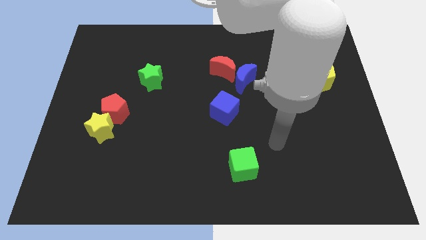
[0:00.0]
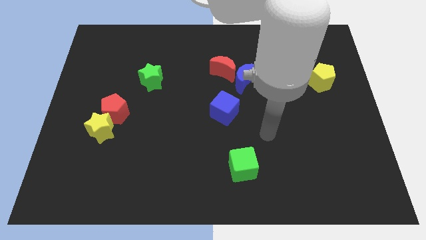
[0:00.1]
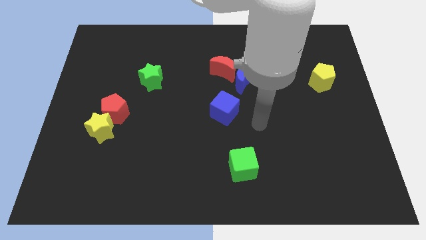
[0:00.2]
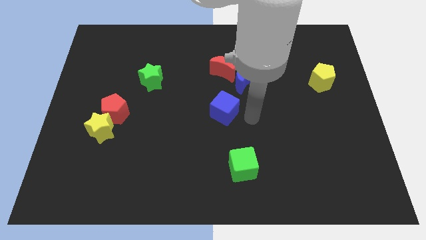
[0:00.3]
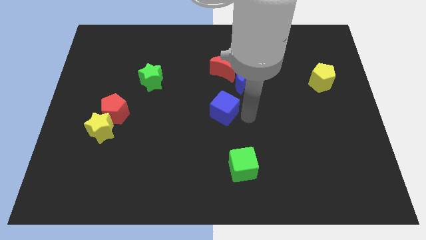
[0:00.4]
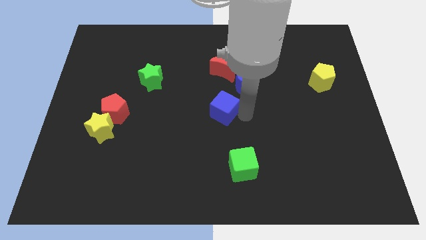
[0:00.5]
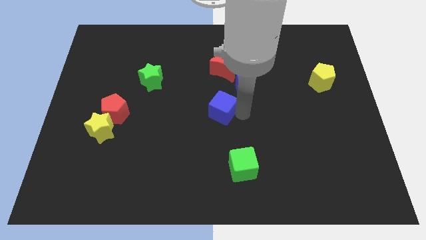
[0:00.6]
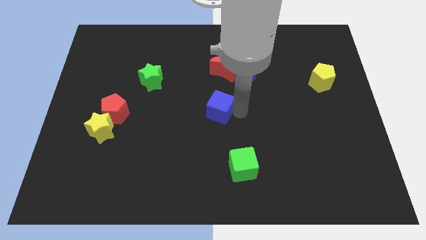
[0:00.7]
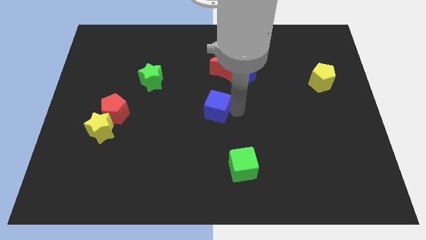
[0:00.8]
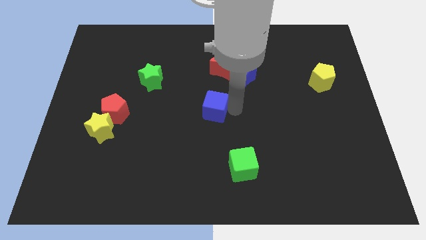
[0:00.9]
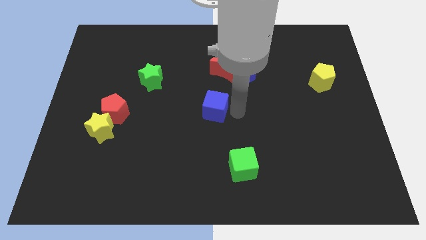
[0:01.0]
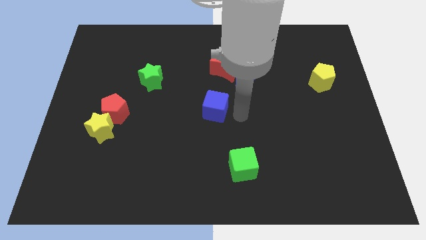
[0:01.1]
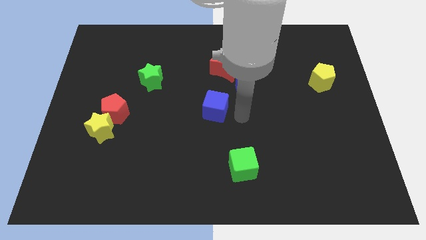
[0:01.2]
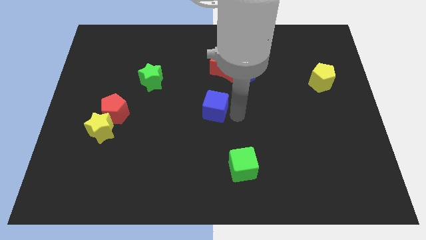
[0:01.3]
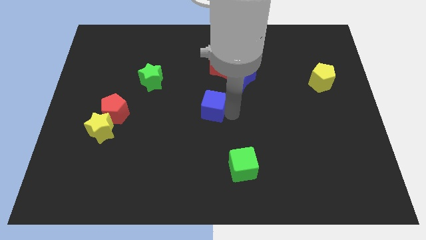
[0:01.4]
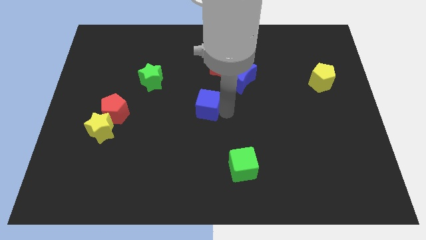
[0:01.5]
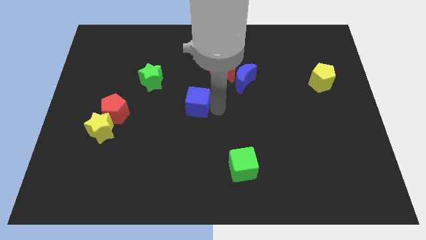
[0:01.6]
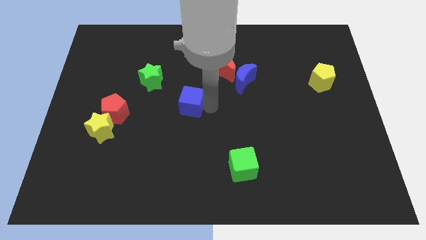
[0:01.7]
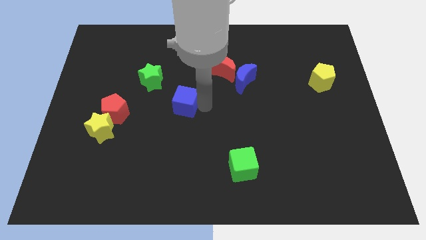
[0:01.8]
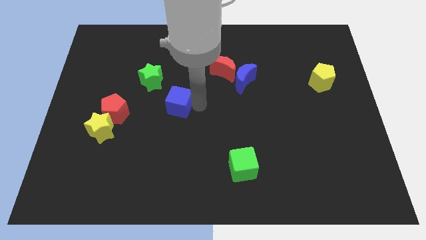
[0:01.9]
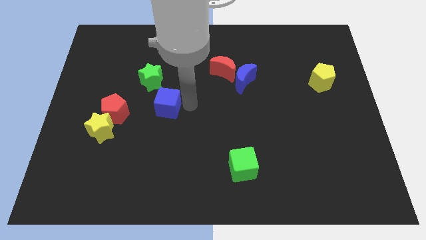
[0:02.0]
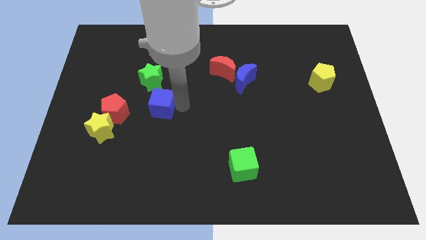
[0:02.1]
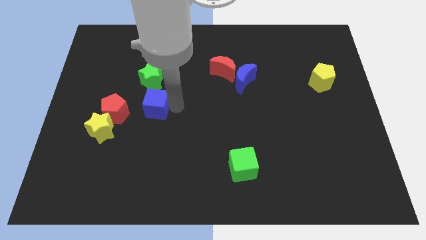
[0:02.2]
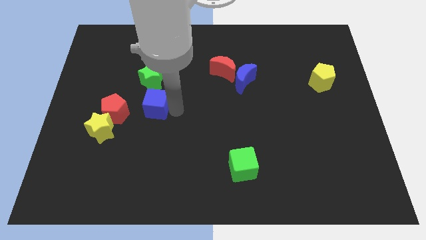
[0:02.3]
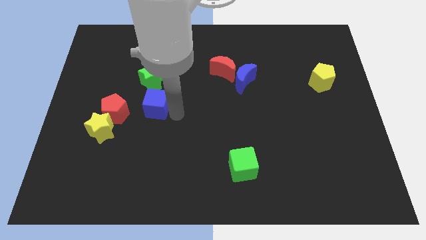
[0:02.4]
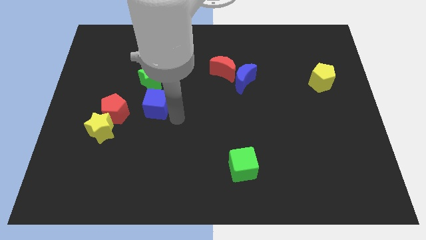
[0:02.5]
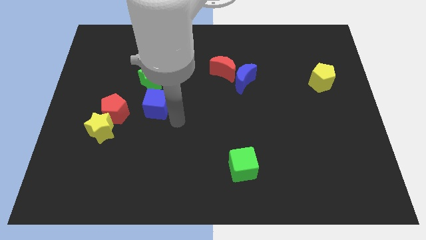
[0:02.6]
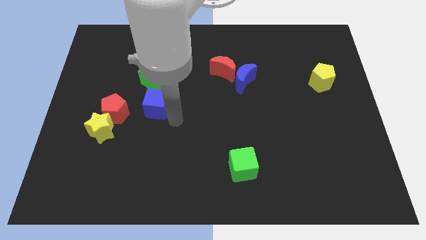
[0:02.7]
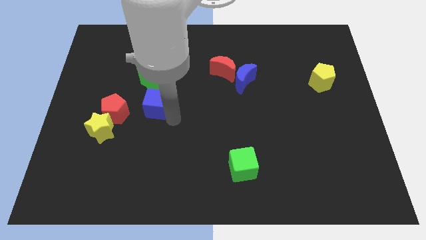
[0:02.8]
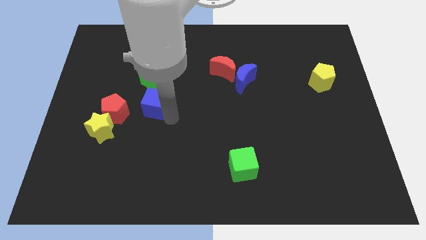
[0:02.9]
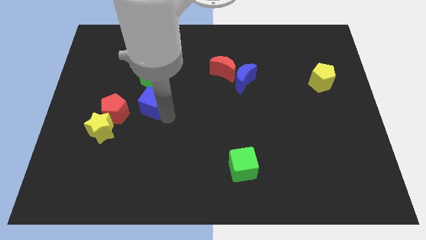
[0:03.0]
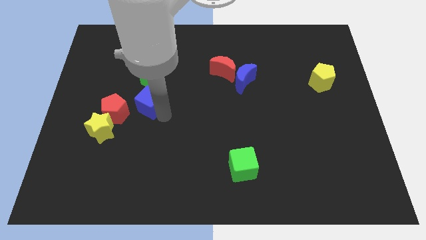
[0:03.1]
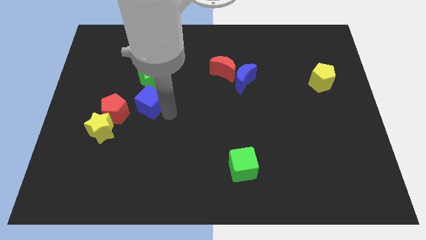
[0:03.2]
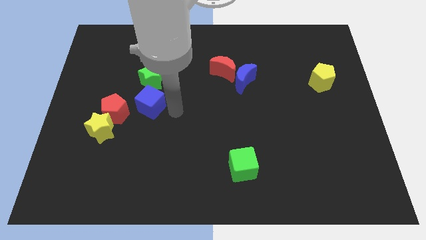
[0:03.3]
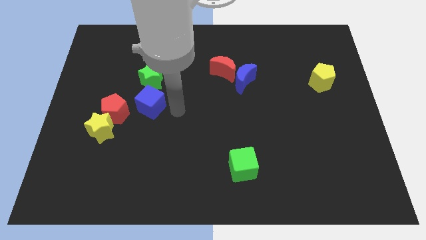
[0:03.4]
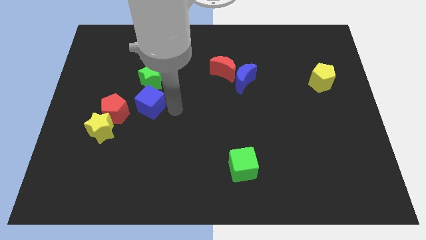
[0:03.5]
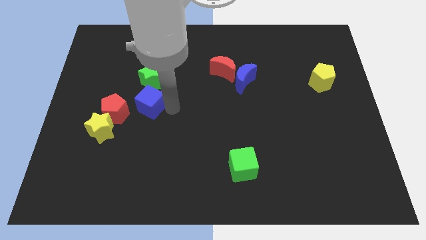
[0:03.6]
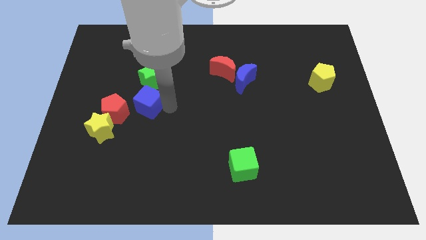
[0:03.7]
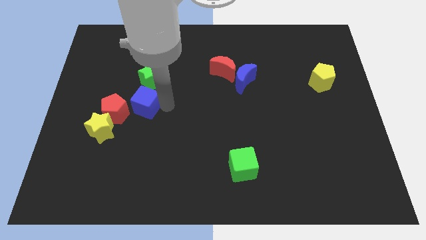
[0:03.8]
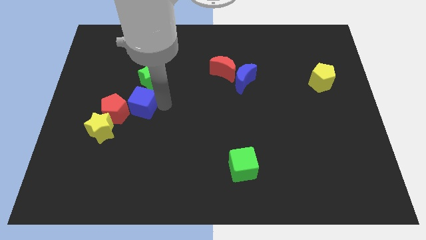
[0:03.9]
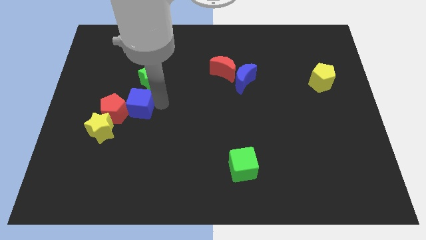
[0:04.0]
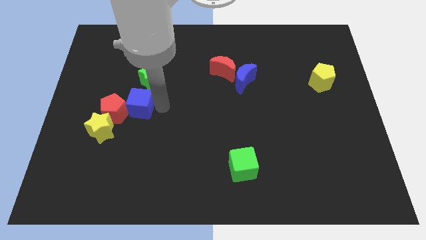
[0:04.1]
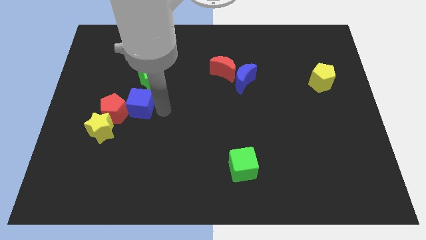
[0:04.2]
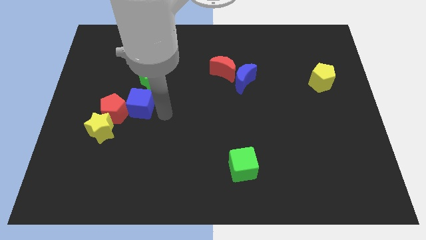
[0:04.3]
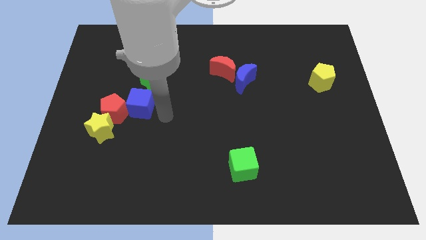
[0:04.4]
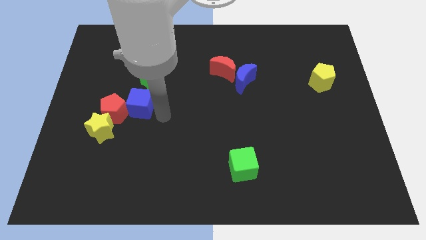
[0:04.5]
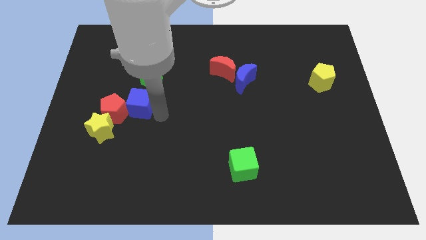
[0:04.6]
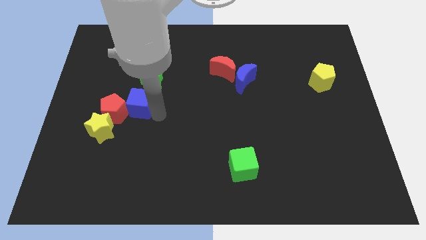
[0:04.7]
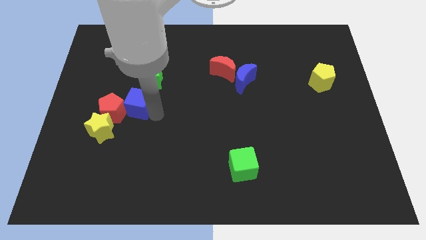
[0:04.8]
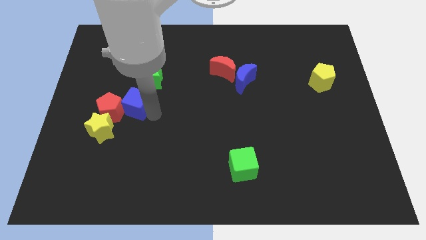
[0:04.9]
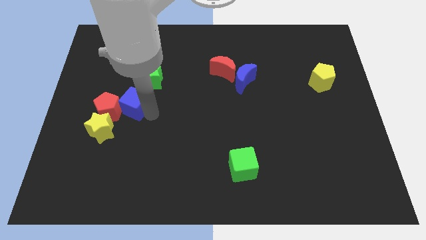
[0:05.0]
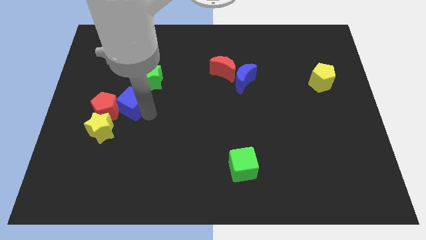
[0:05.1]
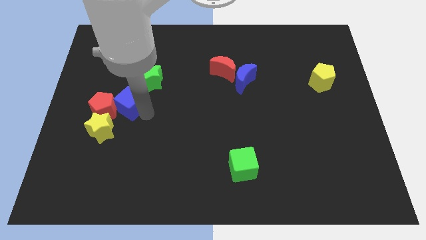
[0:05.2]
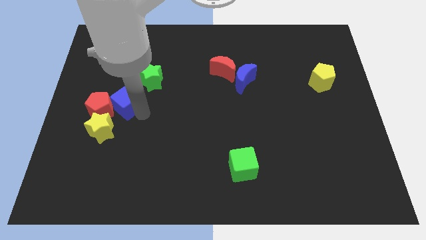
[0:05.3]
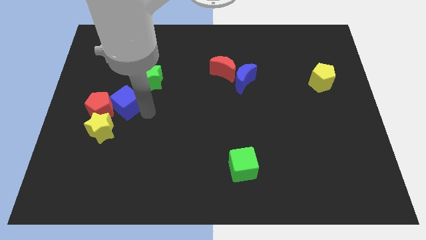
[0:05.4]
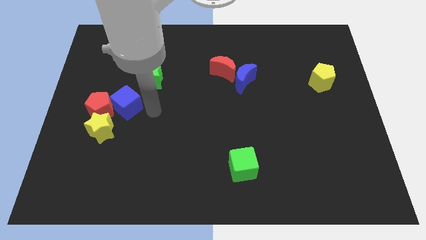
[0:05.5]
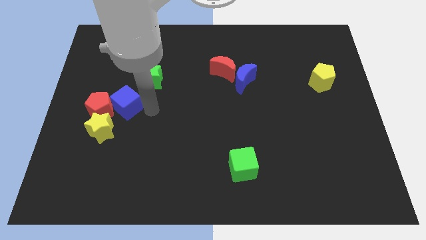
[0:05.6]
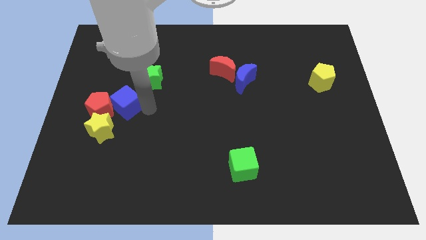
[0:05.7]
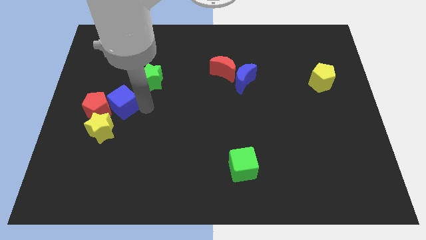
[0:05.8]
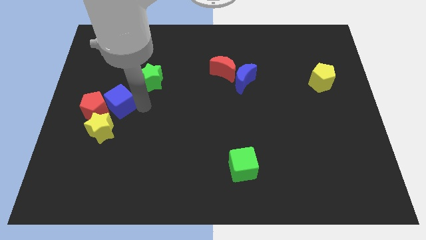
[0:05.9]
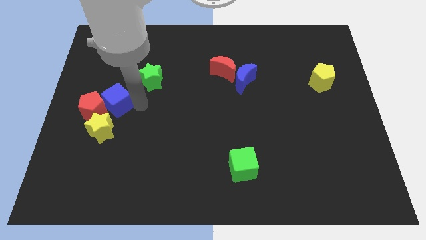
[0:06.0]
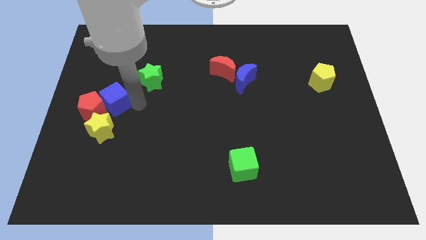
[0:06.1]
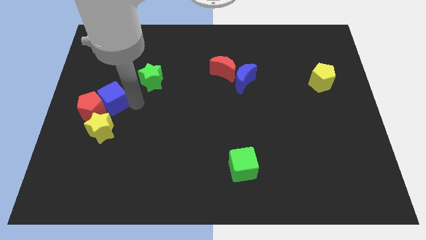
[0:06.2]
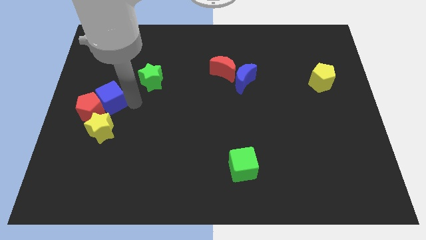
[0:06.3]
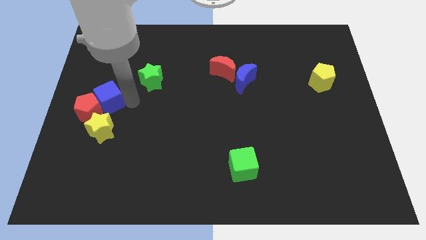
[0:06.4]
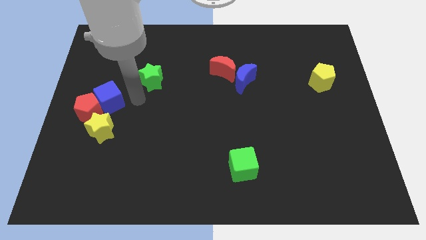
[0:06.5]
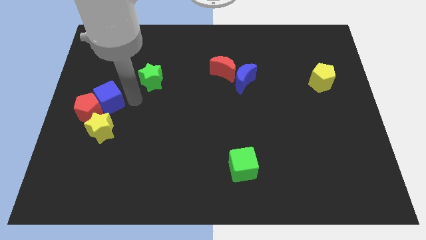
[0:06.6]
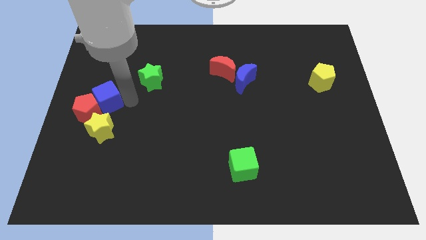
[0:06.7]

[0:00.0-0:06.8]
put the blue cube to the left side

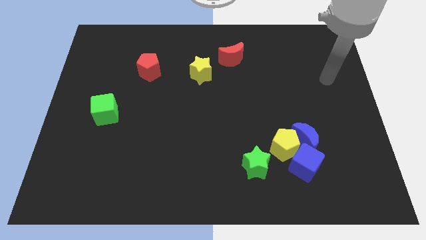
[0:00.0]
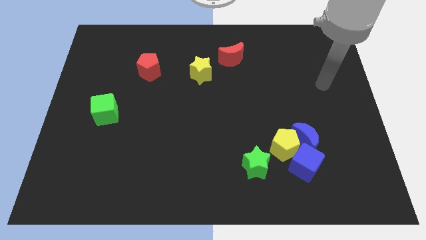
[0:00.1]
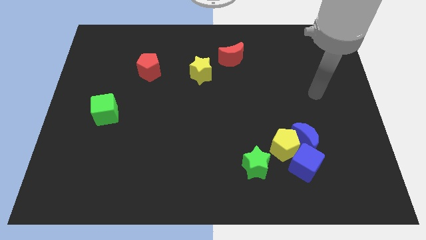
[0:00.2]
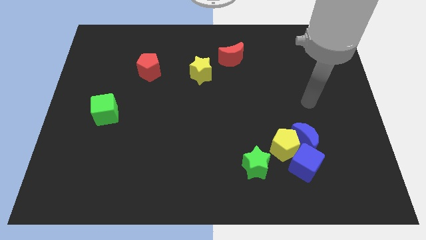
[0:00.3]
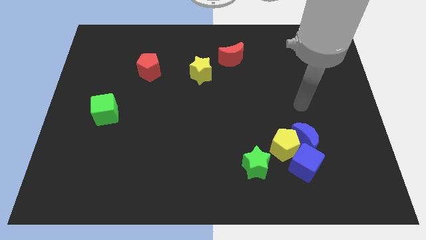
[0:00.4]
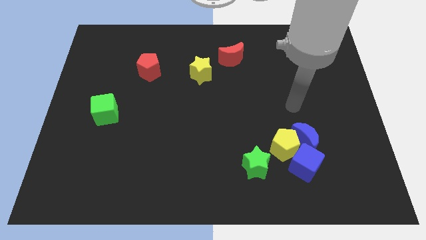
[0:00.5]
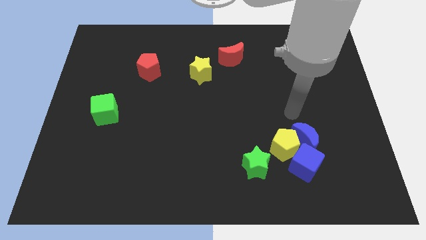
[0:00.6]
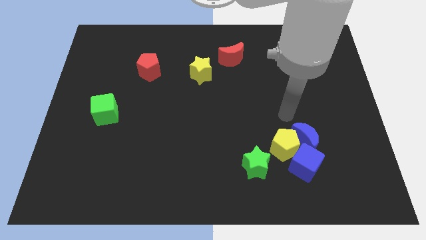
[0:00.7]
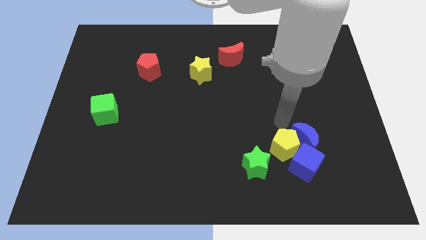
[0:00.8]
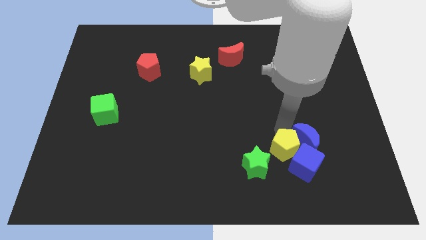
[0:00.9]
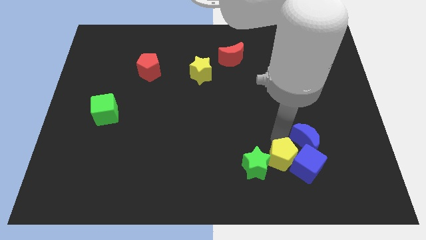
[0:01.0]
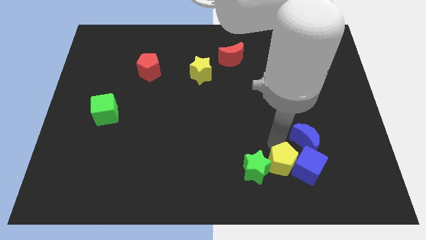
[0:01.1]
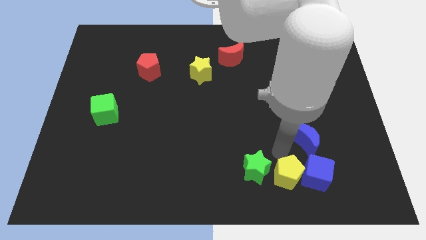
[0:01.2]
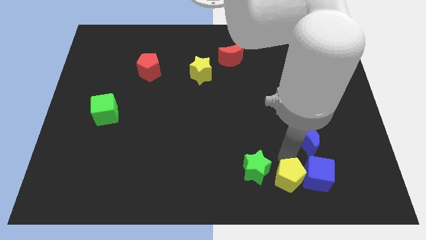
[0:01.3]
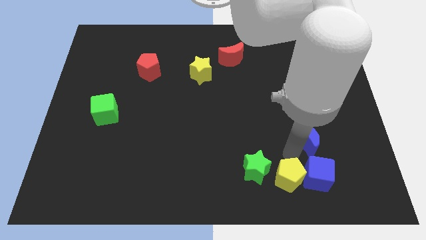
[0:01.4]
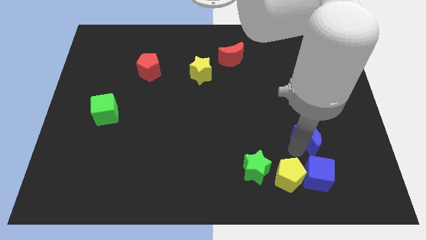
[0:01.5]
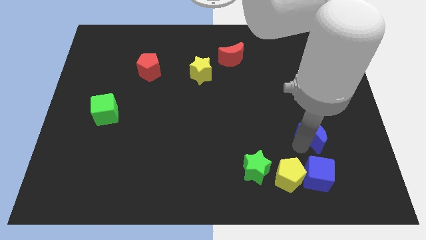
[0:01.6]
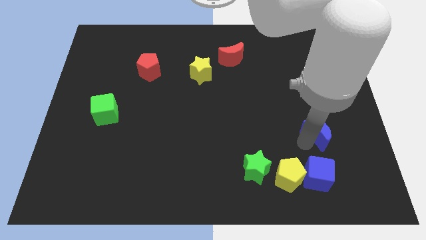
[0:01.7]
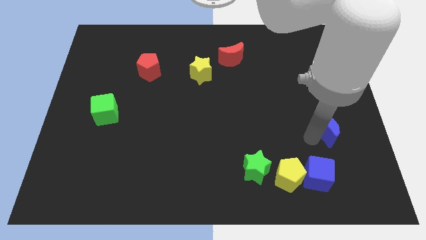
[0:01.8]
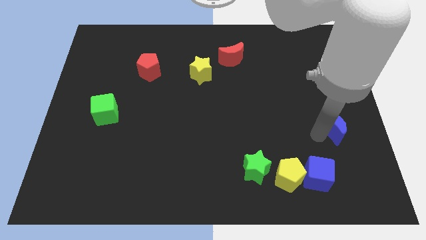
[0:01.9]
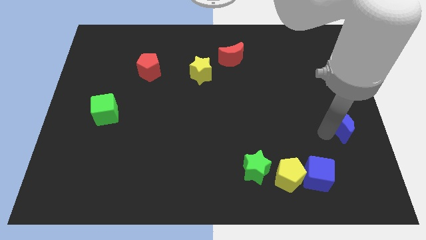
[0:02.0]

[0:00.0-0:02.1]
slide the blue moon to the right side
